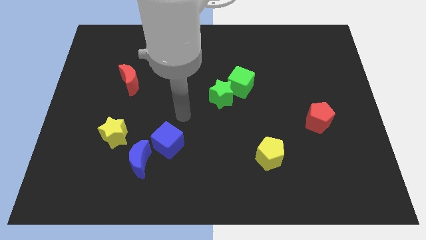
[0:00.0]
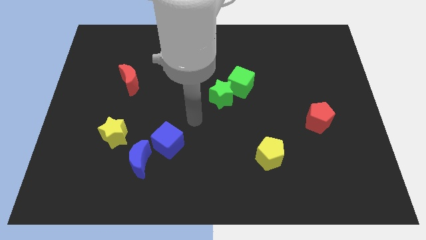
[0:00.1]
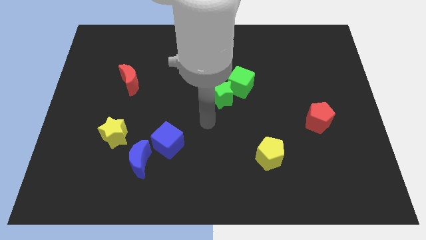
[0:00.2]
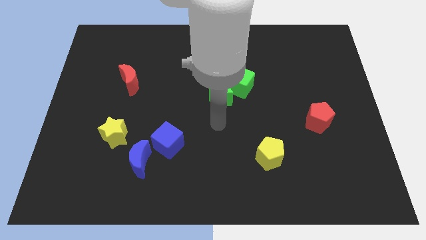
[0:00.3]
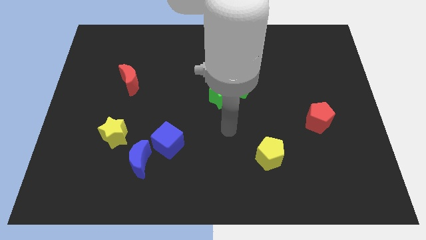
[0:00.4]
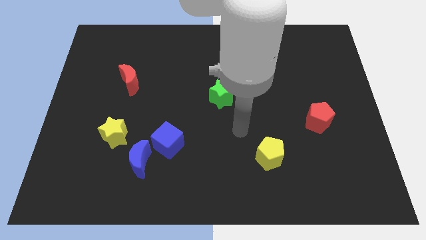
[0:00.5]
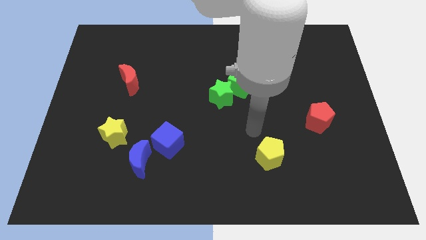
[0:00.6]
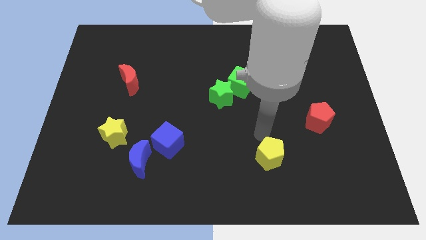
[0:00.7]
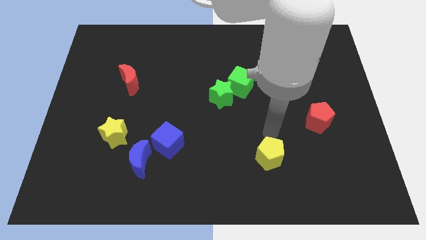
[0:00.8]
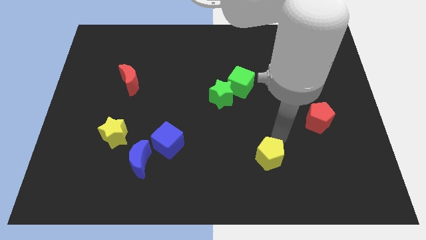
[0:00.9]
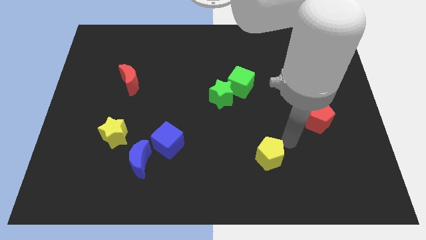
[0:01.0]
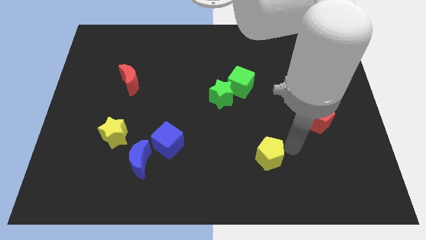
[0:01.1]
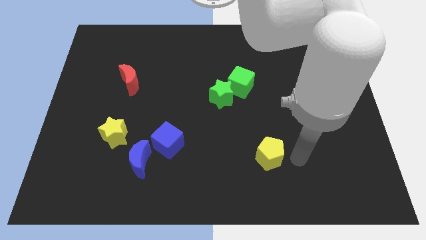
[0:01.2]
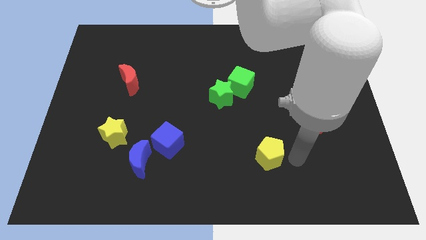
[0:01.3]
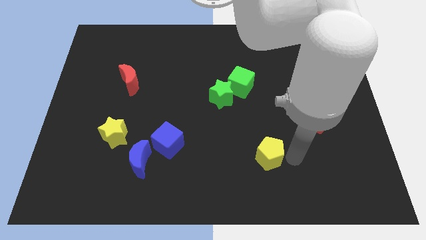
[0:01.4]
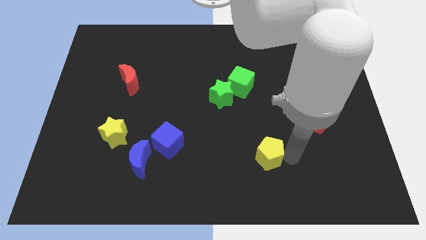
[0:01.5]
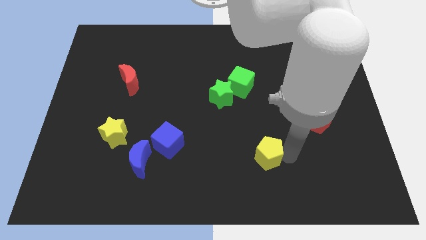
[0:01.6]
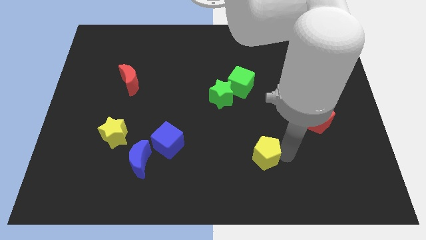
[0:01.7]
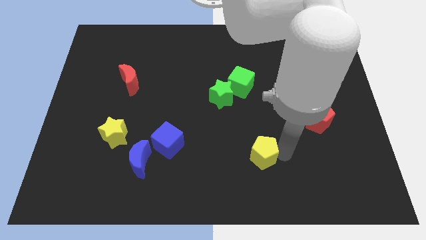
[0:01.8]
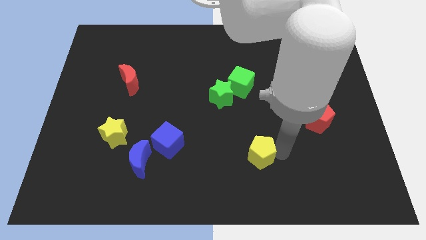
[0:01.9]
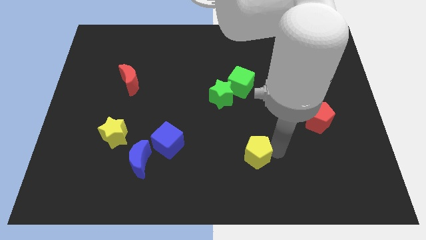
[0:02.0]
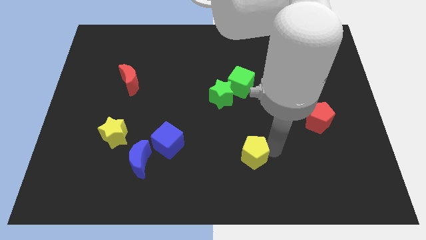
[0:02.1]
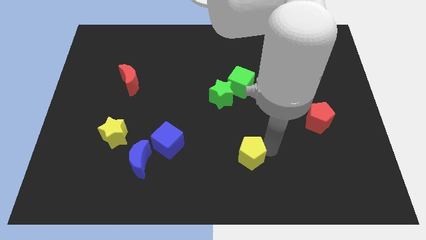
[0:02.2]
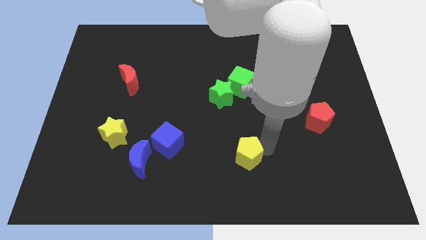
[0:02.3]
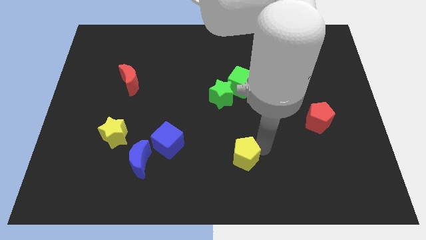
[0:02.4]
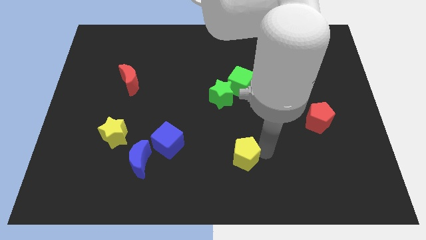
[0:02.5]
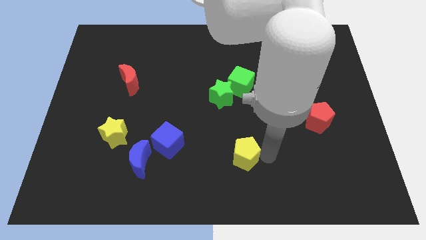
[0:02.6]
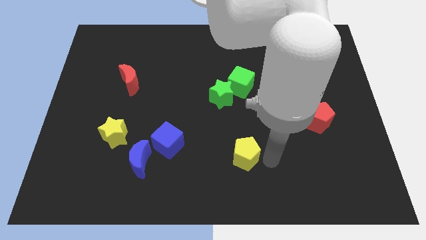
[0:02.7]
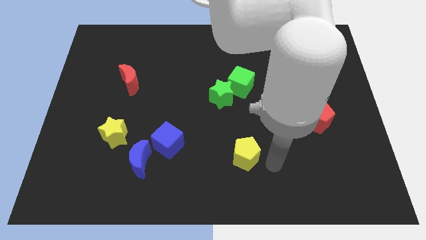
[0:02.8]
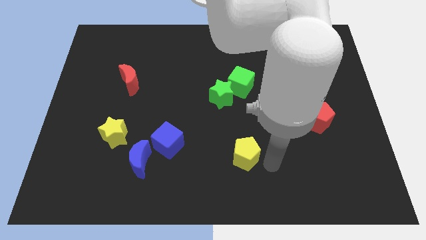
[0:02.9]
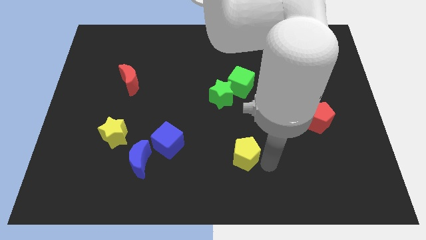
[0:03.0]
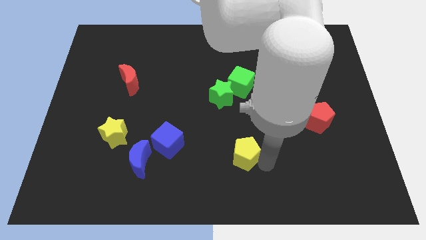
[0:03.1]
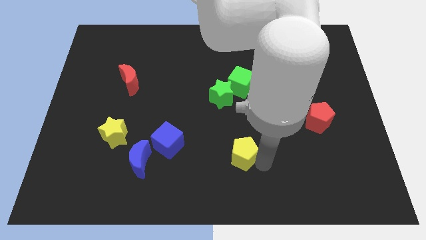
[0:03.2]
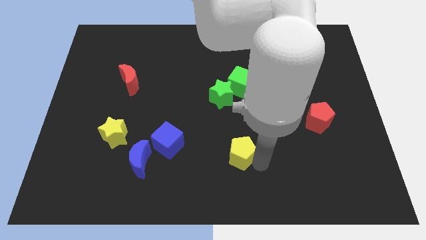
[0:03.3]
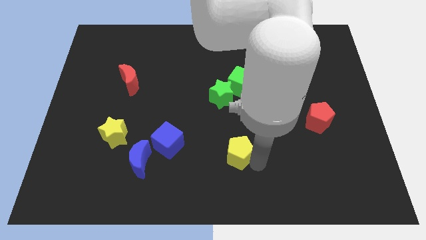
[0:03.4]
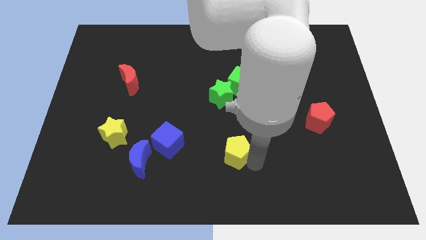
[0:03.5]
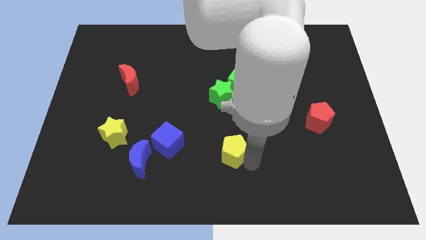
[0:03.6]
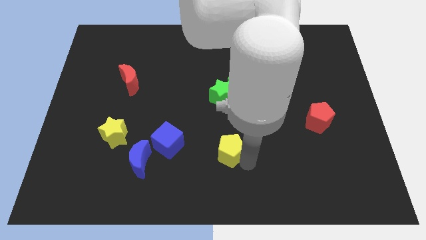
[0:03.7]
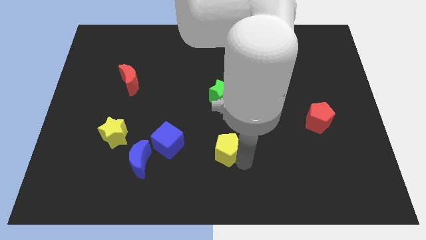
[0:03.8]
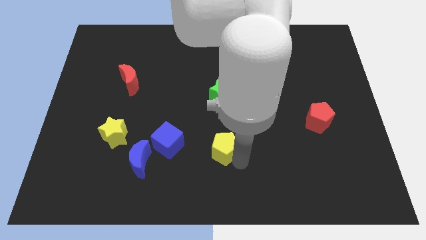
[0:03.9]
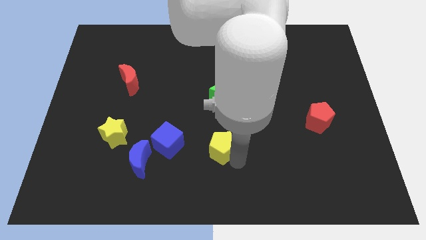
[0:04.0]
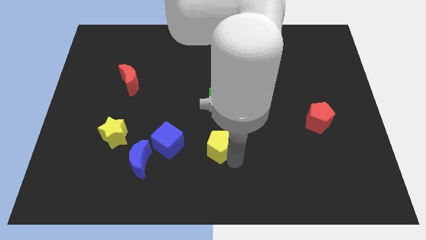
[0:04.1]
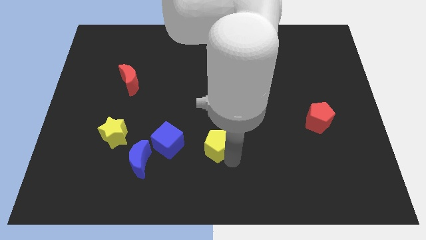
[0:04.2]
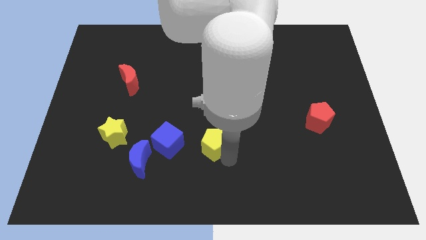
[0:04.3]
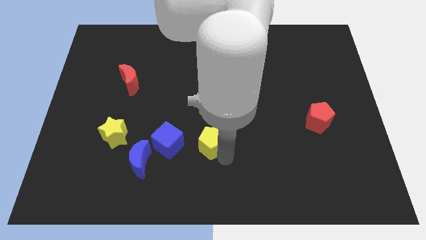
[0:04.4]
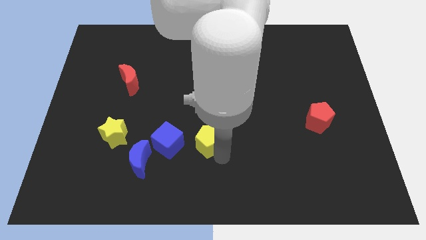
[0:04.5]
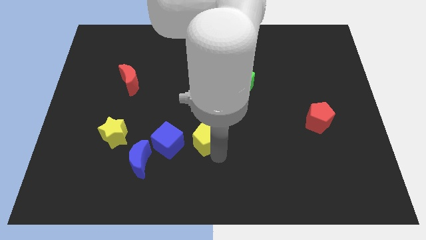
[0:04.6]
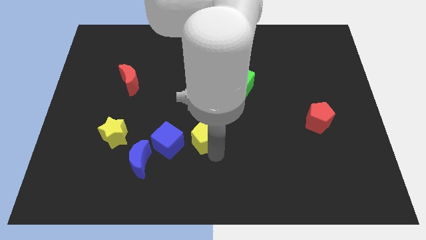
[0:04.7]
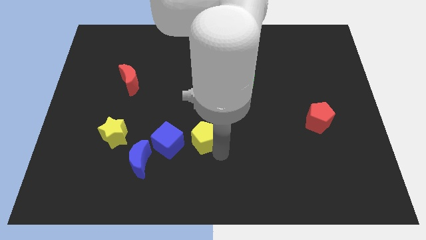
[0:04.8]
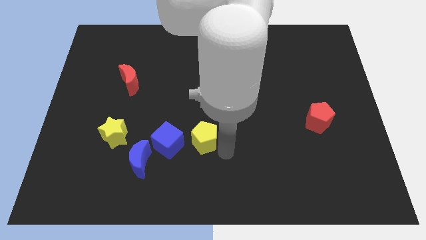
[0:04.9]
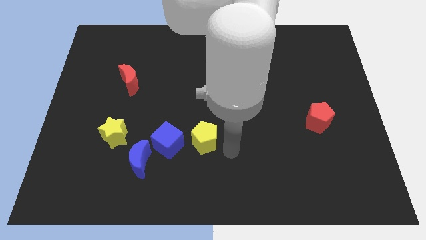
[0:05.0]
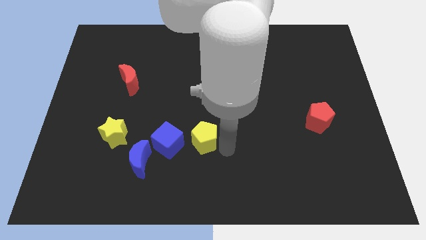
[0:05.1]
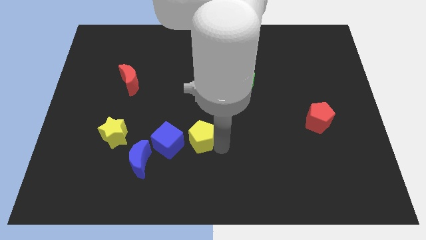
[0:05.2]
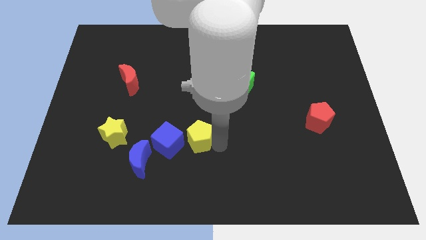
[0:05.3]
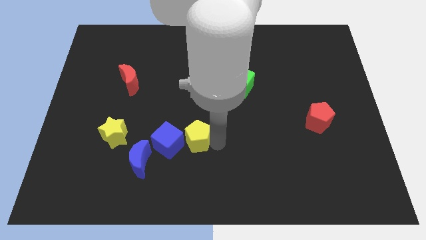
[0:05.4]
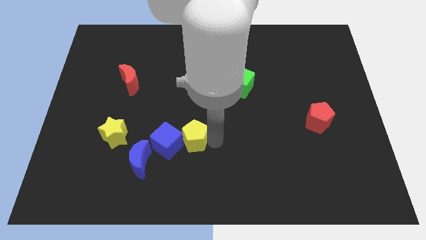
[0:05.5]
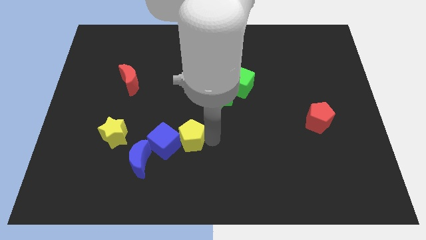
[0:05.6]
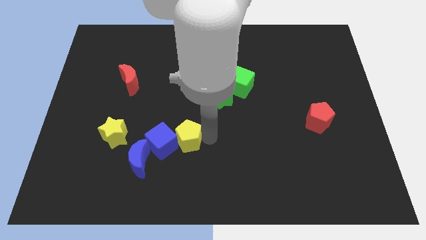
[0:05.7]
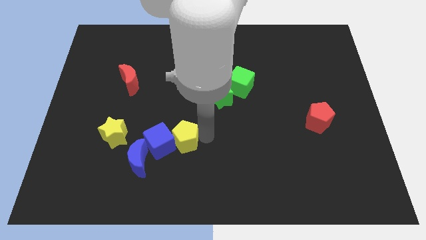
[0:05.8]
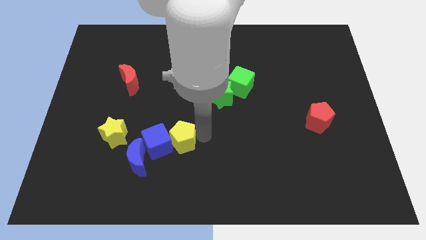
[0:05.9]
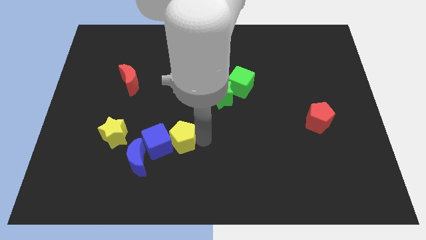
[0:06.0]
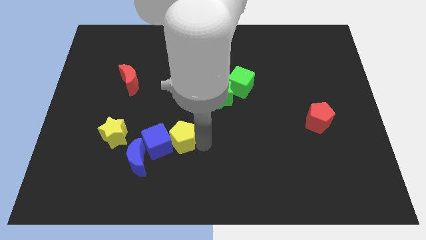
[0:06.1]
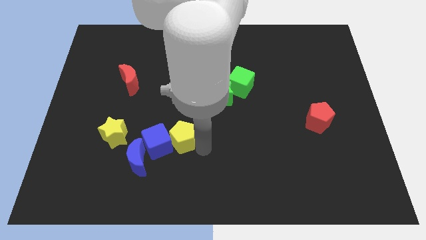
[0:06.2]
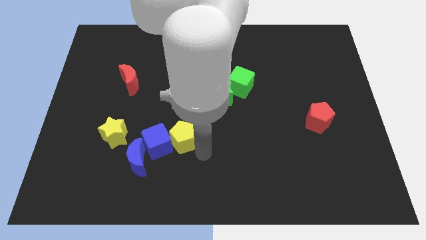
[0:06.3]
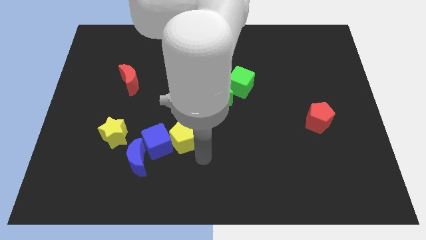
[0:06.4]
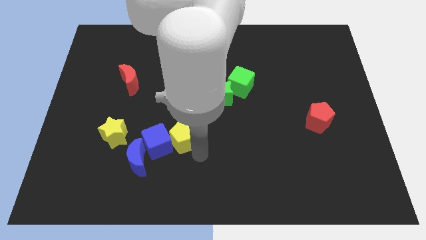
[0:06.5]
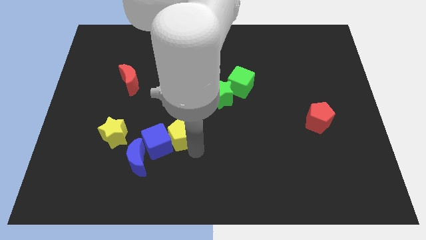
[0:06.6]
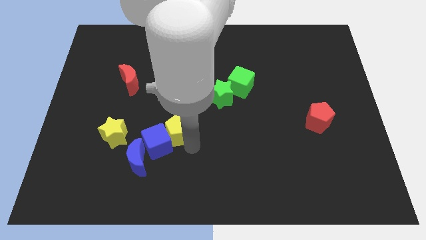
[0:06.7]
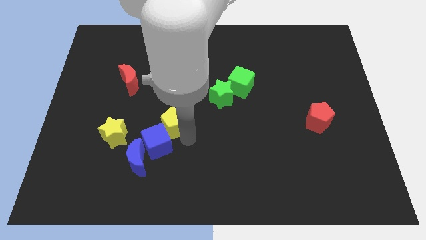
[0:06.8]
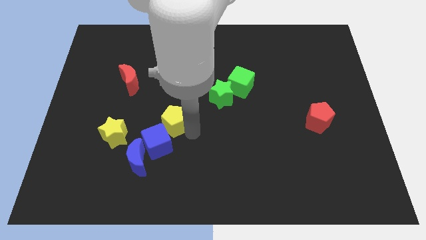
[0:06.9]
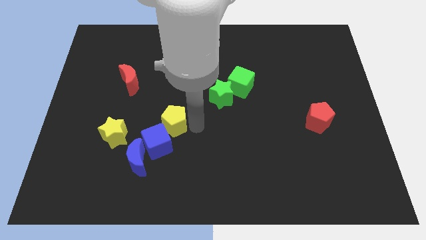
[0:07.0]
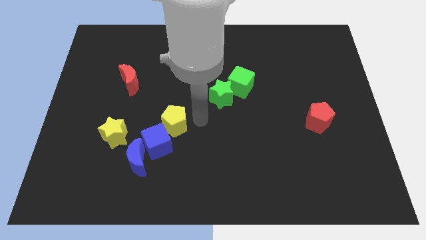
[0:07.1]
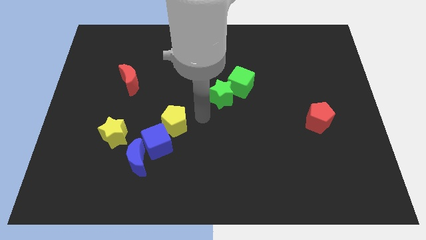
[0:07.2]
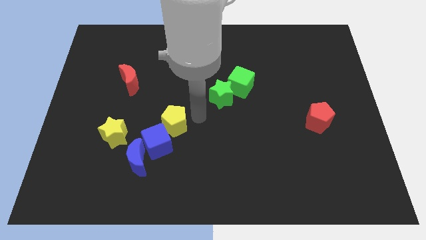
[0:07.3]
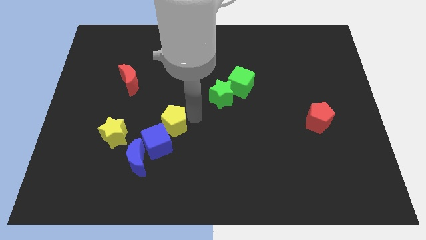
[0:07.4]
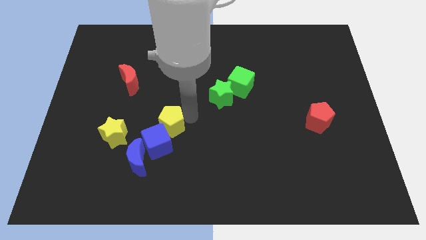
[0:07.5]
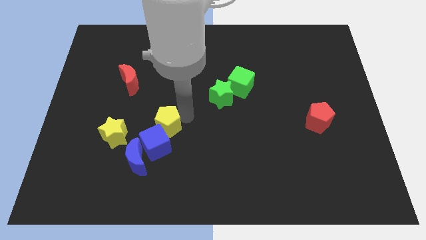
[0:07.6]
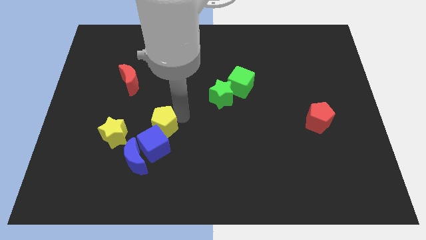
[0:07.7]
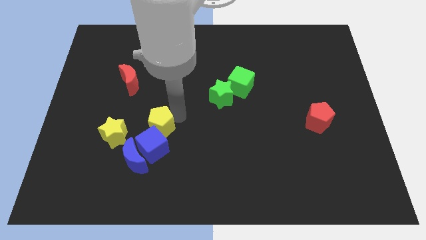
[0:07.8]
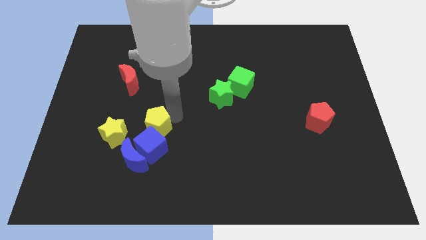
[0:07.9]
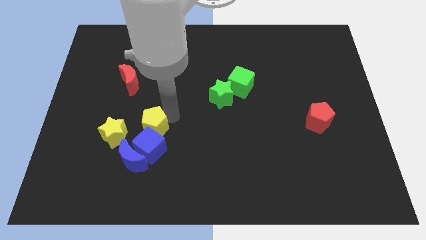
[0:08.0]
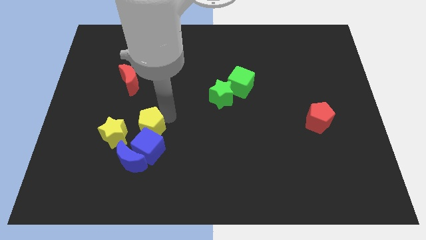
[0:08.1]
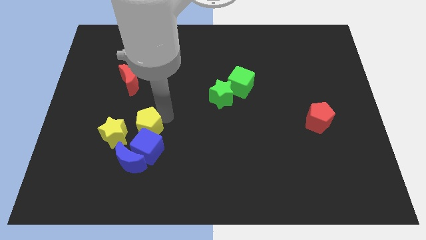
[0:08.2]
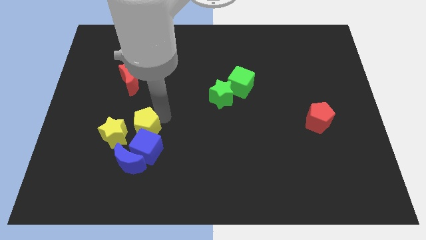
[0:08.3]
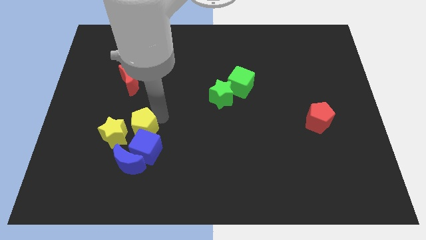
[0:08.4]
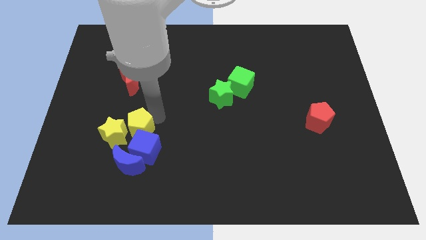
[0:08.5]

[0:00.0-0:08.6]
put the yellow pentagon close to the yellow star
